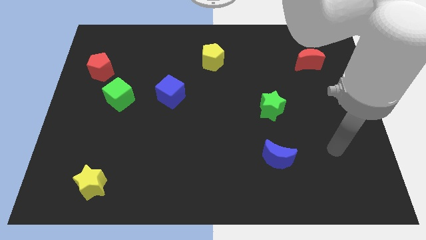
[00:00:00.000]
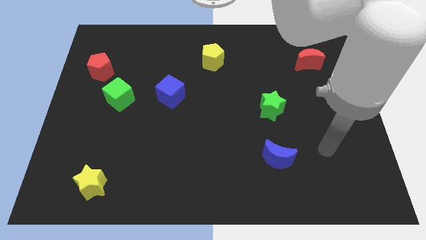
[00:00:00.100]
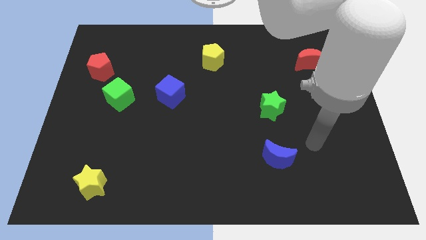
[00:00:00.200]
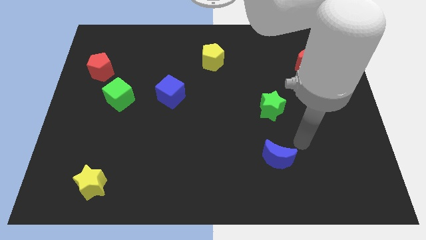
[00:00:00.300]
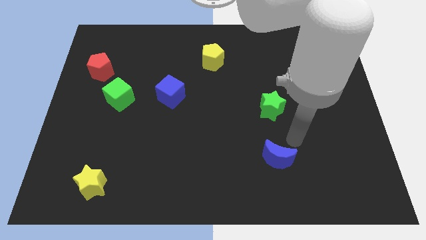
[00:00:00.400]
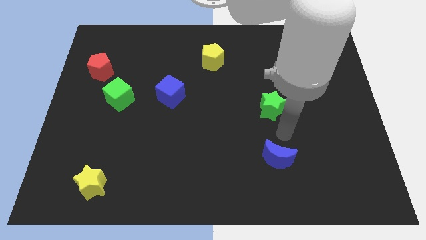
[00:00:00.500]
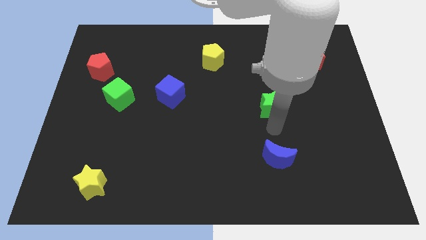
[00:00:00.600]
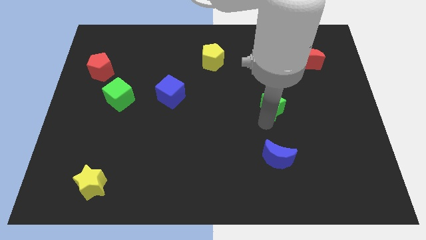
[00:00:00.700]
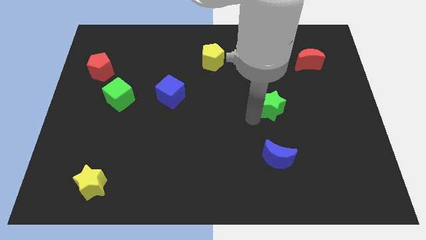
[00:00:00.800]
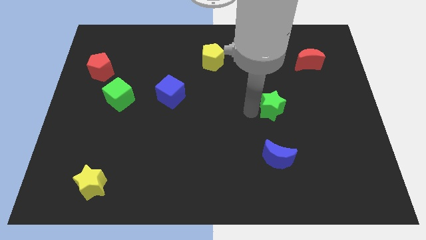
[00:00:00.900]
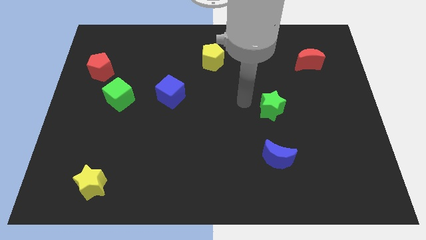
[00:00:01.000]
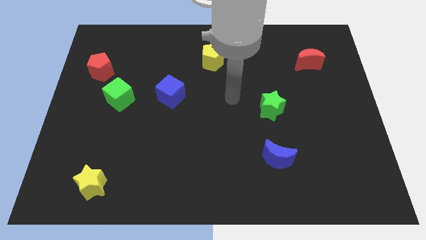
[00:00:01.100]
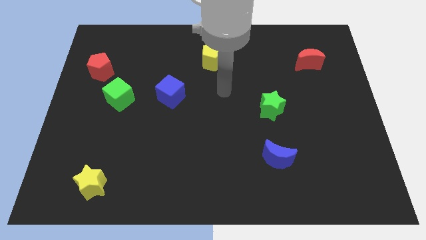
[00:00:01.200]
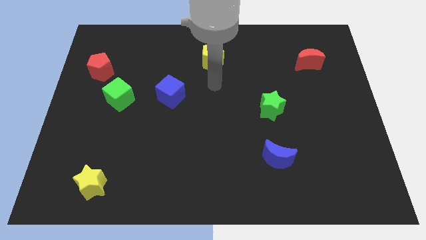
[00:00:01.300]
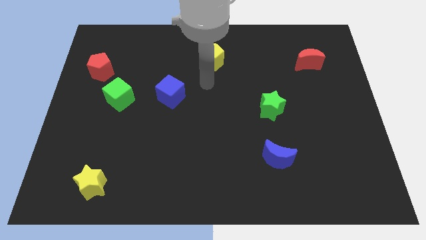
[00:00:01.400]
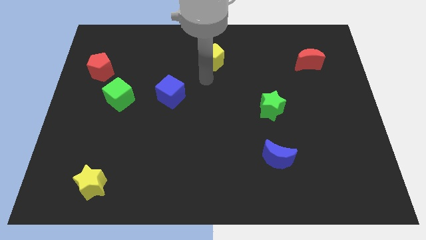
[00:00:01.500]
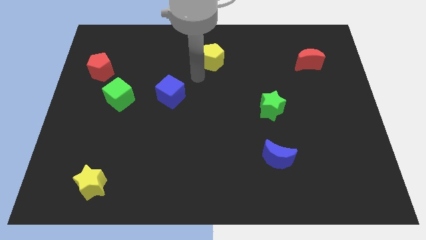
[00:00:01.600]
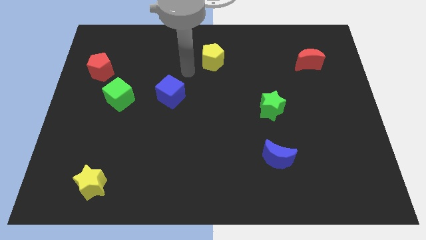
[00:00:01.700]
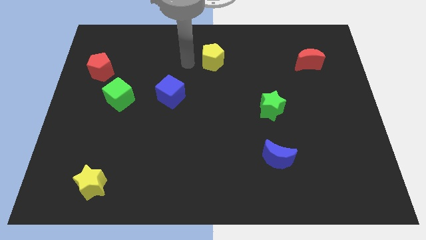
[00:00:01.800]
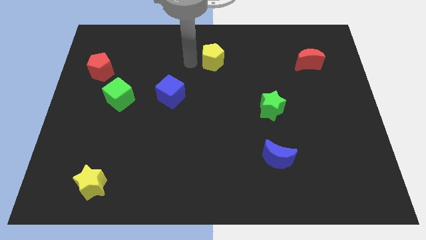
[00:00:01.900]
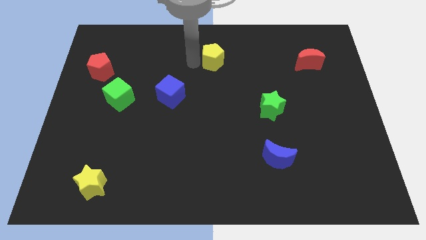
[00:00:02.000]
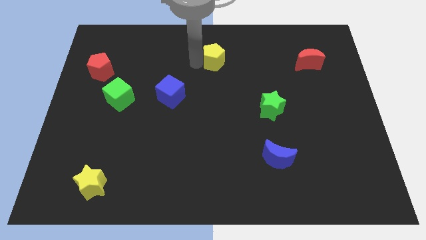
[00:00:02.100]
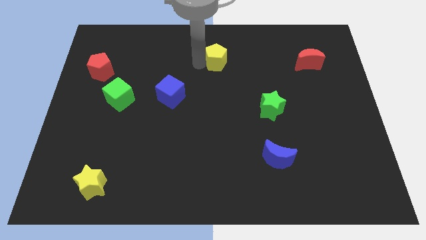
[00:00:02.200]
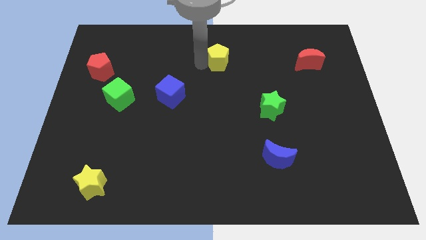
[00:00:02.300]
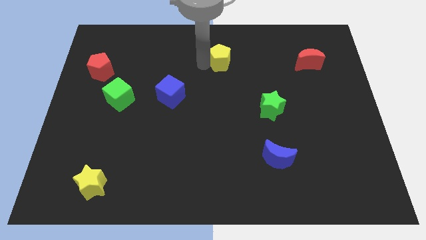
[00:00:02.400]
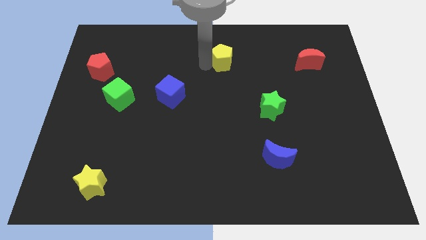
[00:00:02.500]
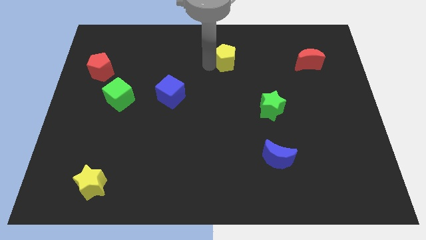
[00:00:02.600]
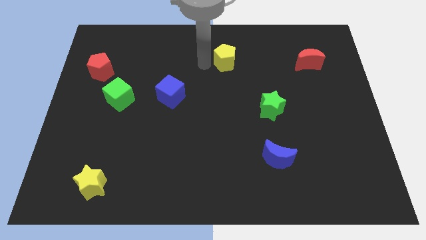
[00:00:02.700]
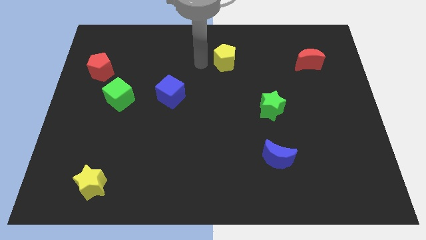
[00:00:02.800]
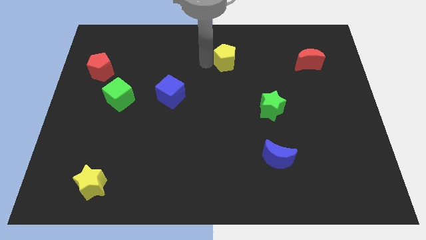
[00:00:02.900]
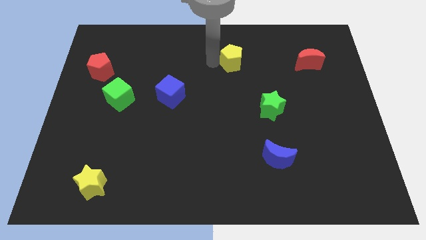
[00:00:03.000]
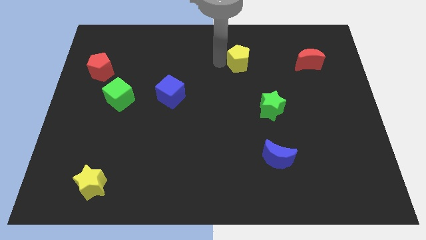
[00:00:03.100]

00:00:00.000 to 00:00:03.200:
slide the yellow pentagon somewhat to the right

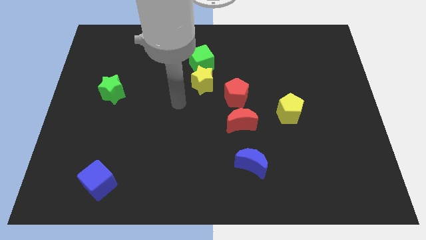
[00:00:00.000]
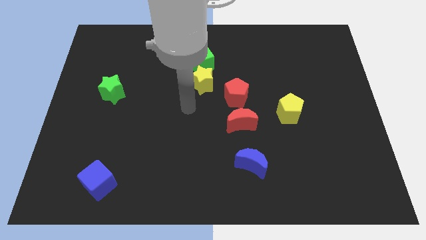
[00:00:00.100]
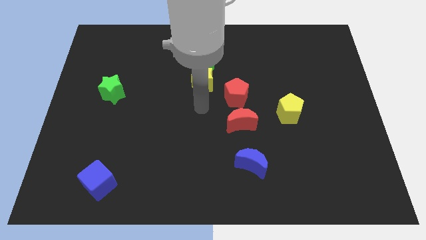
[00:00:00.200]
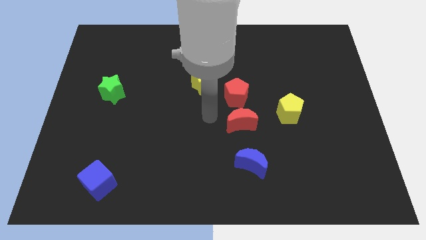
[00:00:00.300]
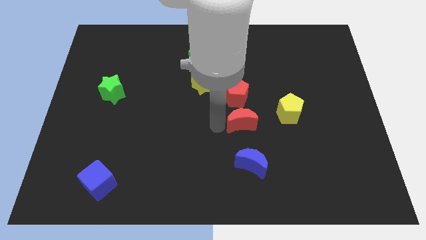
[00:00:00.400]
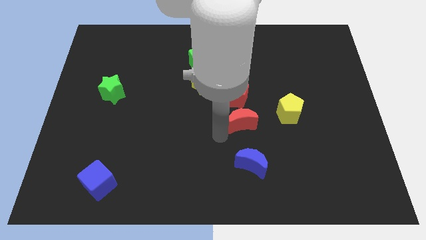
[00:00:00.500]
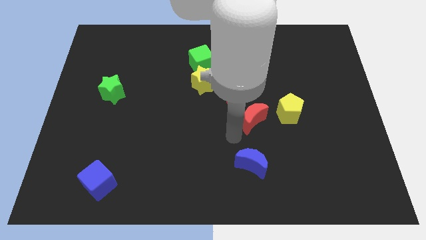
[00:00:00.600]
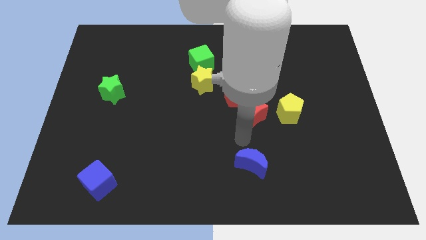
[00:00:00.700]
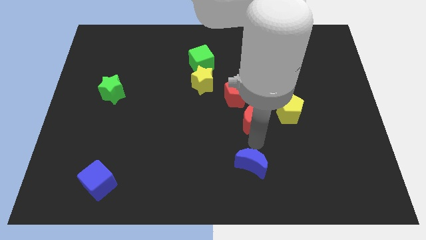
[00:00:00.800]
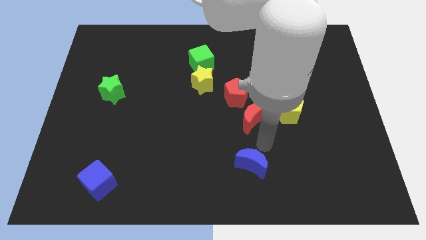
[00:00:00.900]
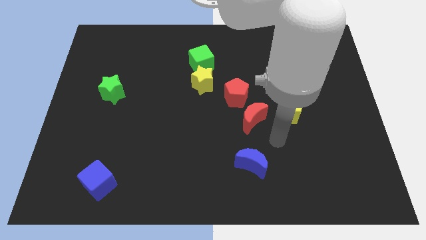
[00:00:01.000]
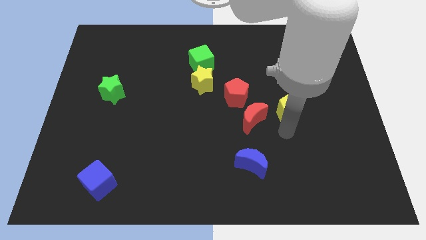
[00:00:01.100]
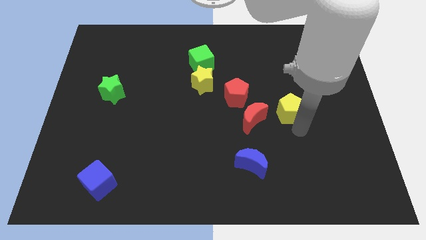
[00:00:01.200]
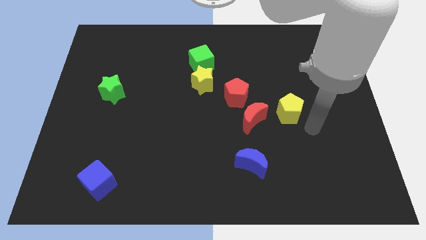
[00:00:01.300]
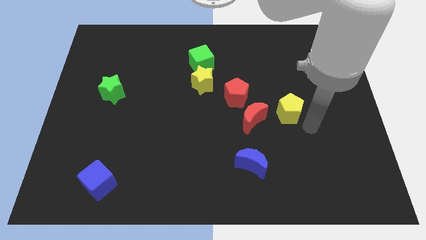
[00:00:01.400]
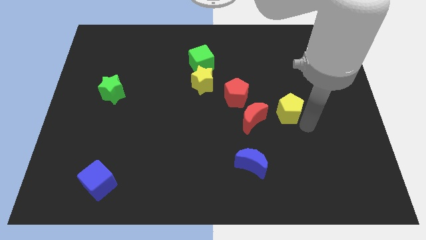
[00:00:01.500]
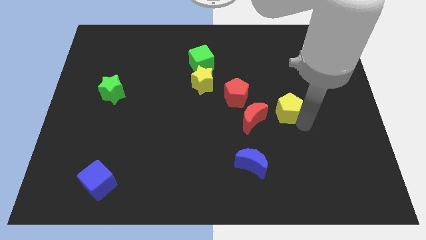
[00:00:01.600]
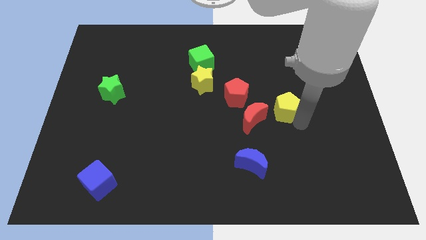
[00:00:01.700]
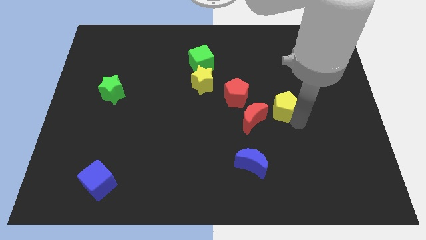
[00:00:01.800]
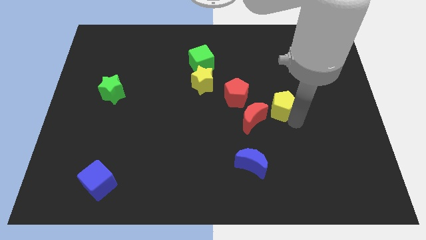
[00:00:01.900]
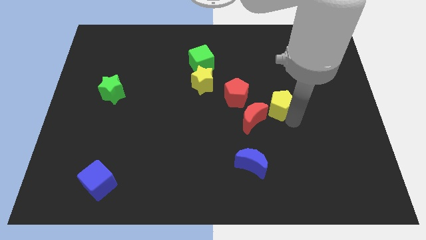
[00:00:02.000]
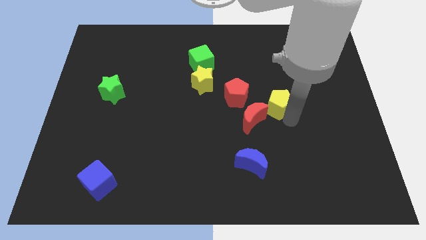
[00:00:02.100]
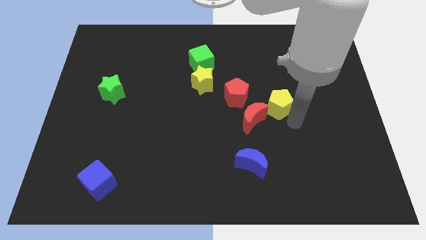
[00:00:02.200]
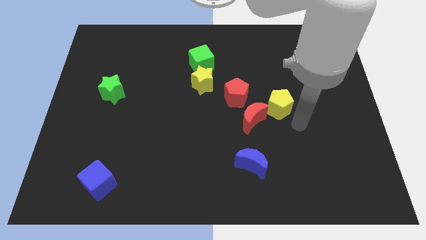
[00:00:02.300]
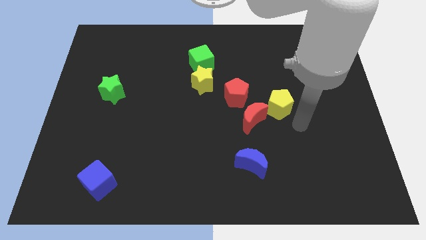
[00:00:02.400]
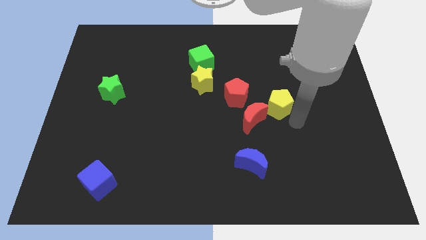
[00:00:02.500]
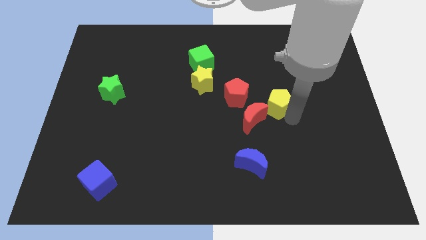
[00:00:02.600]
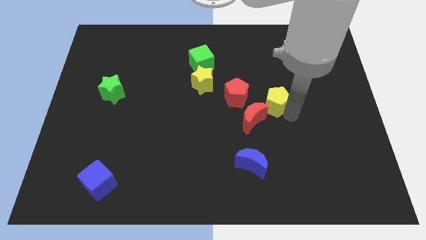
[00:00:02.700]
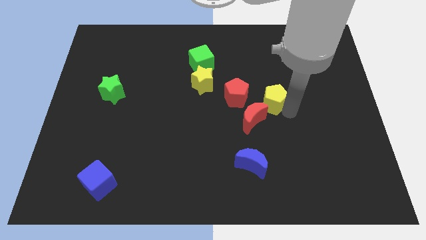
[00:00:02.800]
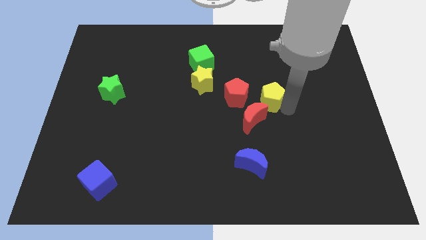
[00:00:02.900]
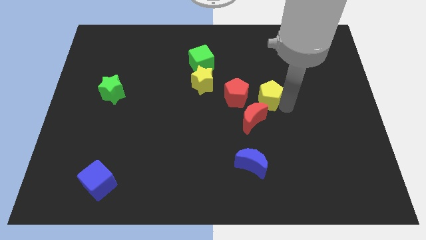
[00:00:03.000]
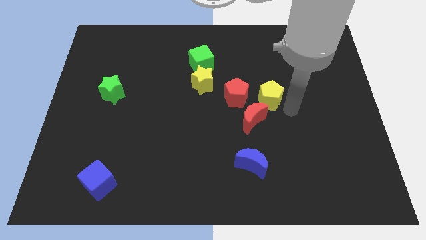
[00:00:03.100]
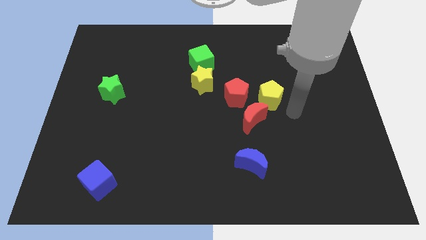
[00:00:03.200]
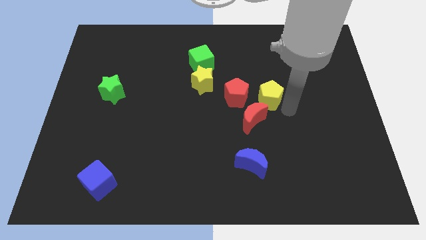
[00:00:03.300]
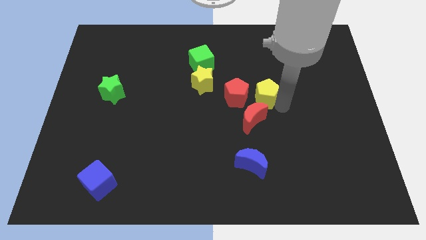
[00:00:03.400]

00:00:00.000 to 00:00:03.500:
push the yellow pentagon up and left somewhat

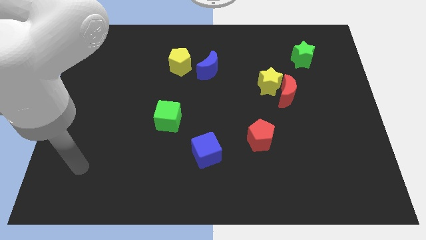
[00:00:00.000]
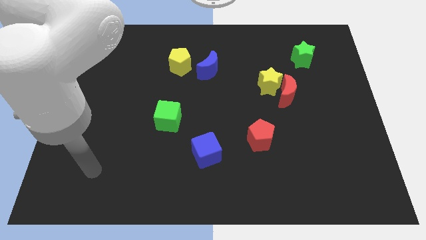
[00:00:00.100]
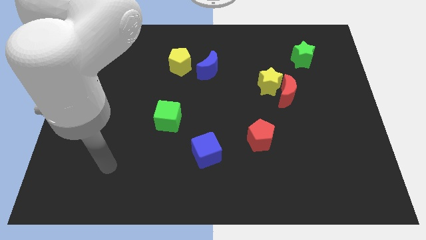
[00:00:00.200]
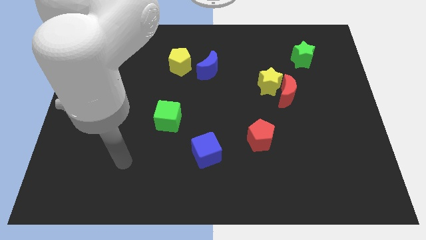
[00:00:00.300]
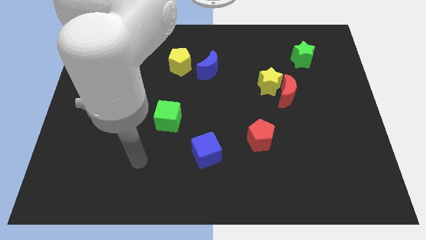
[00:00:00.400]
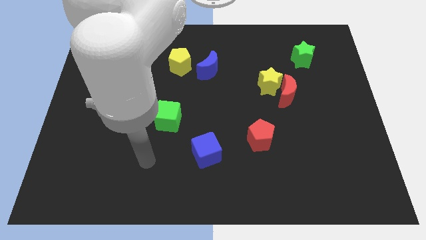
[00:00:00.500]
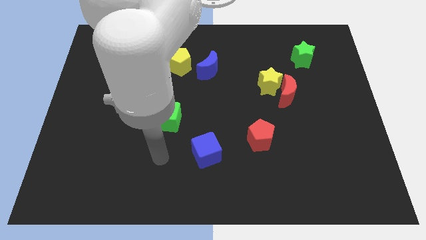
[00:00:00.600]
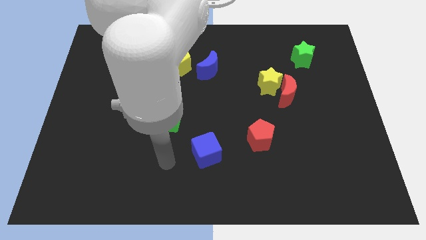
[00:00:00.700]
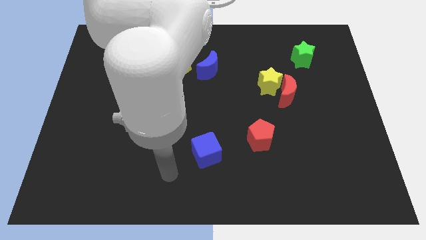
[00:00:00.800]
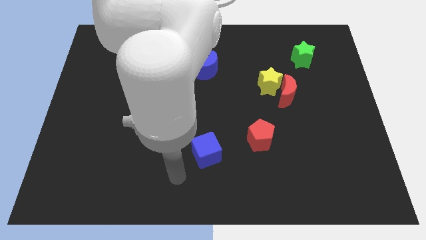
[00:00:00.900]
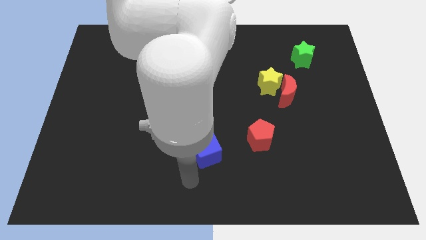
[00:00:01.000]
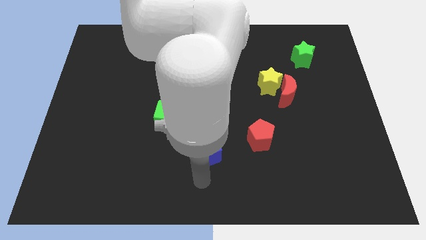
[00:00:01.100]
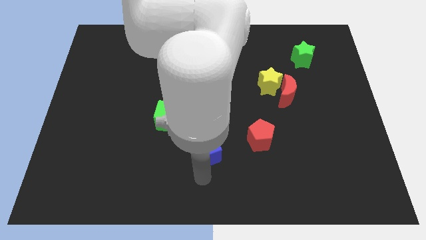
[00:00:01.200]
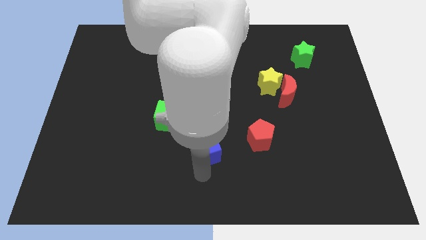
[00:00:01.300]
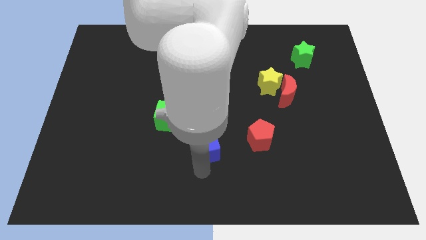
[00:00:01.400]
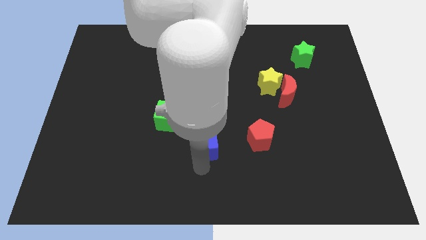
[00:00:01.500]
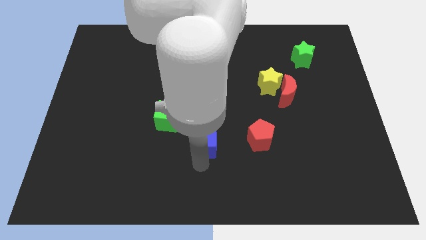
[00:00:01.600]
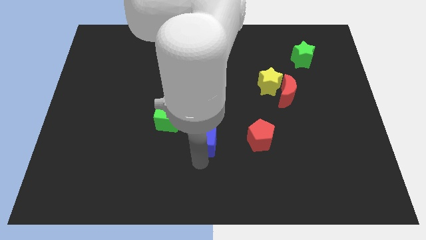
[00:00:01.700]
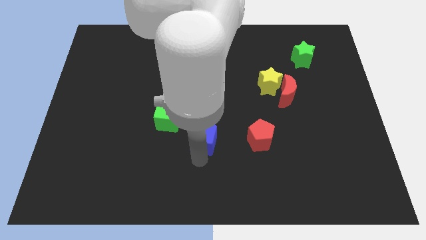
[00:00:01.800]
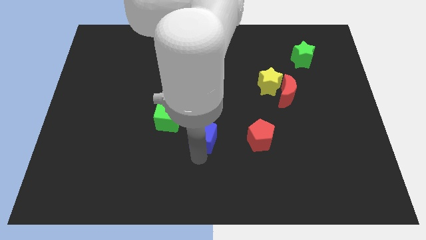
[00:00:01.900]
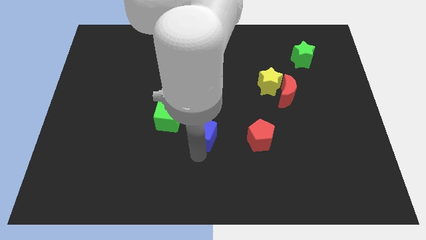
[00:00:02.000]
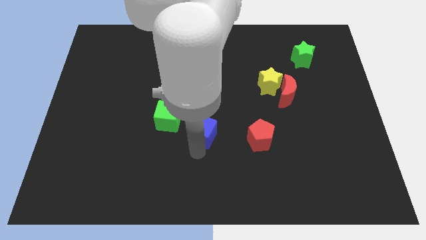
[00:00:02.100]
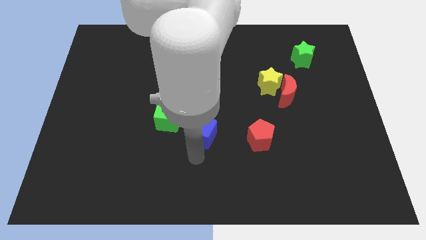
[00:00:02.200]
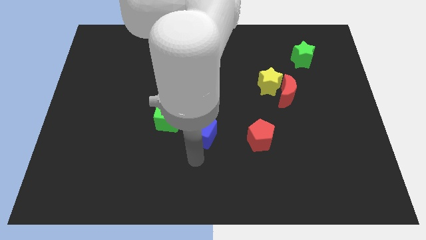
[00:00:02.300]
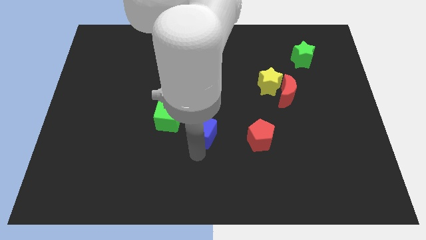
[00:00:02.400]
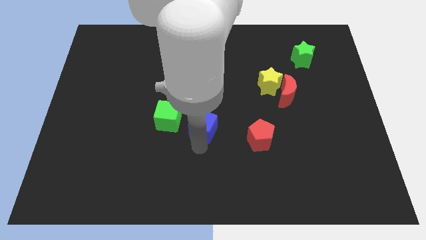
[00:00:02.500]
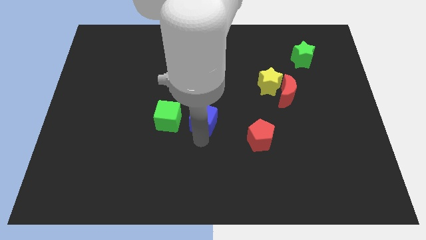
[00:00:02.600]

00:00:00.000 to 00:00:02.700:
slide the blue cube upwards a bit
